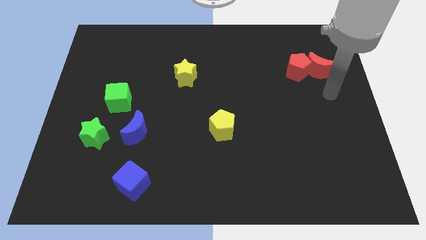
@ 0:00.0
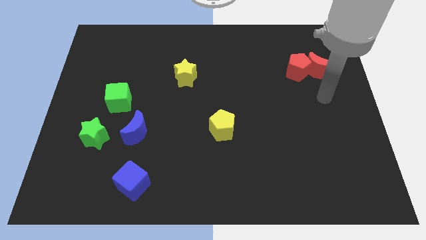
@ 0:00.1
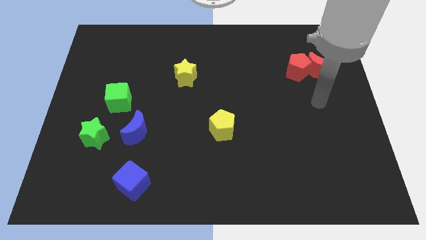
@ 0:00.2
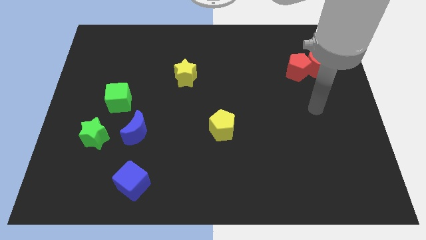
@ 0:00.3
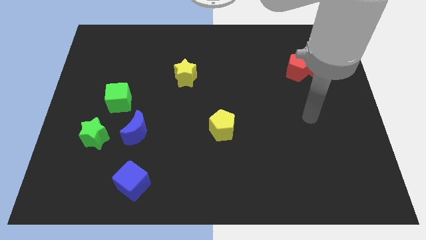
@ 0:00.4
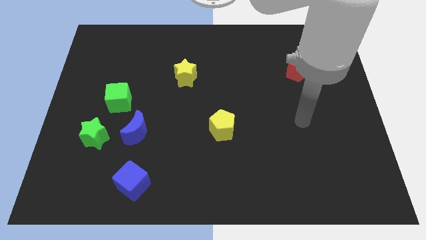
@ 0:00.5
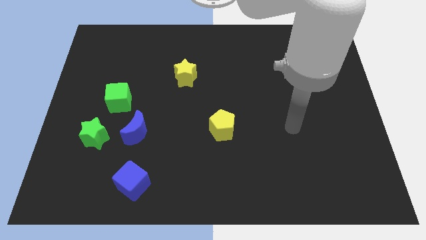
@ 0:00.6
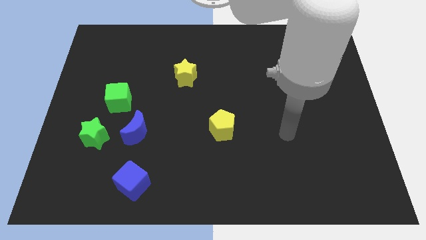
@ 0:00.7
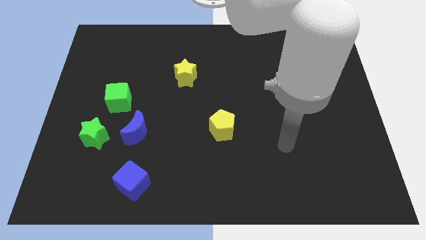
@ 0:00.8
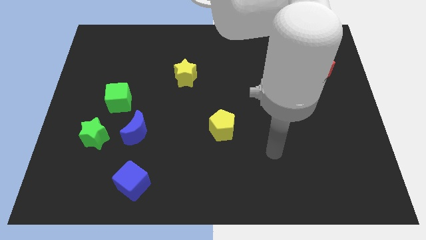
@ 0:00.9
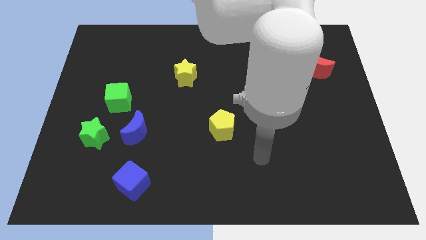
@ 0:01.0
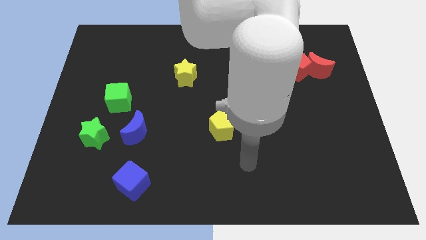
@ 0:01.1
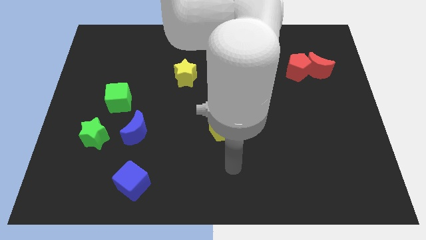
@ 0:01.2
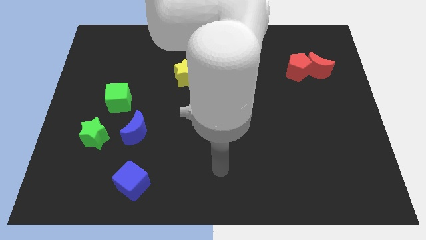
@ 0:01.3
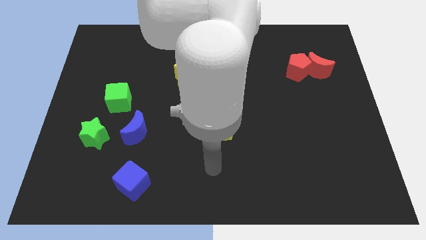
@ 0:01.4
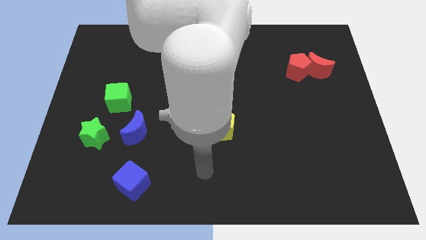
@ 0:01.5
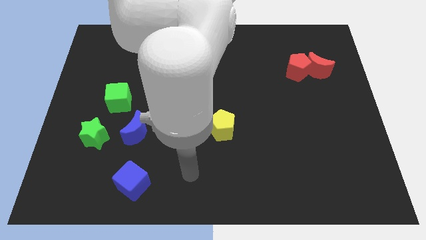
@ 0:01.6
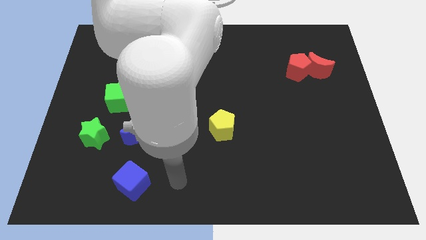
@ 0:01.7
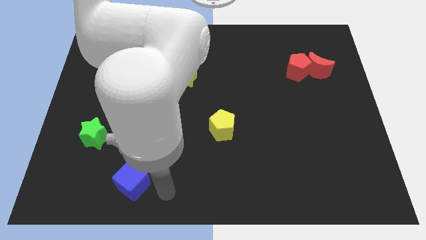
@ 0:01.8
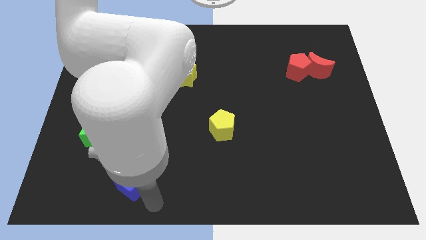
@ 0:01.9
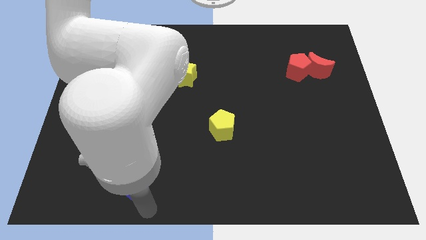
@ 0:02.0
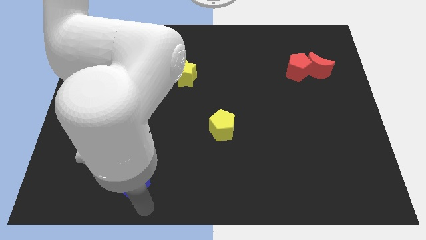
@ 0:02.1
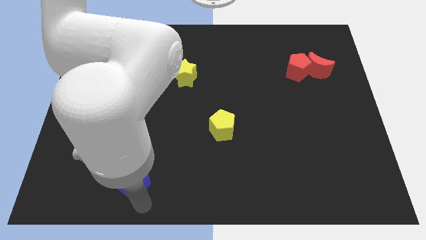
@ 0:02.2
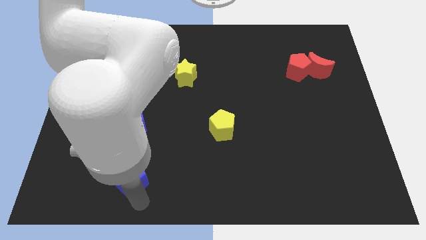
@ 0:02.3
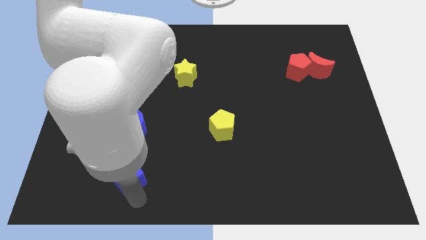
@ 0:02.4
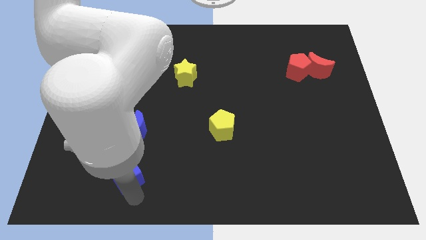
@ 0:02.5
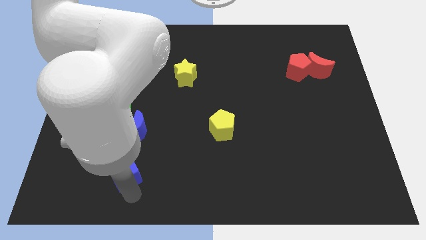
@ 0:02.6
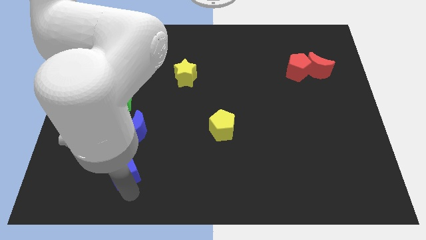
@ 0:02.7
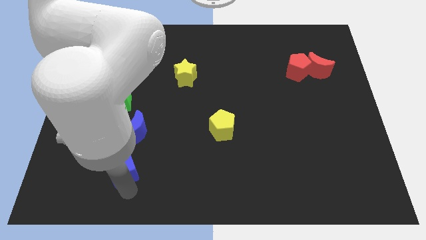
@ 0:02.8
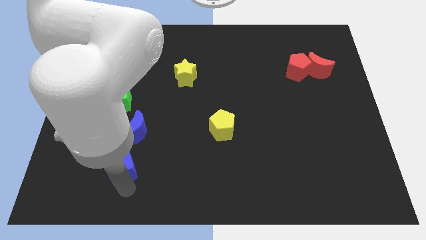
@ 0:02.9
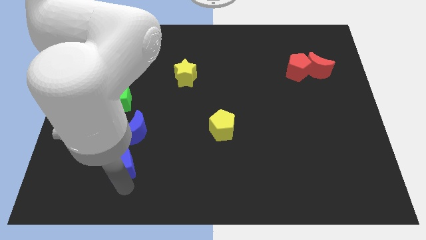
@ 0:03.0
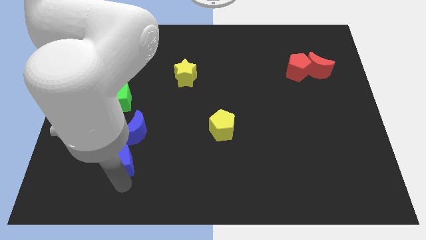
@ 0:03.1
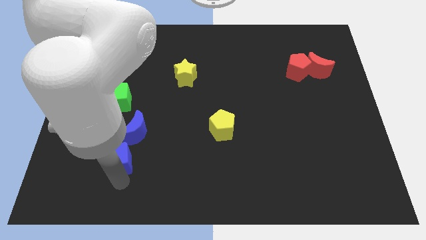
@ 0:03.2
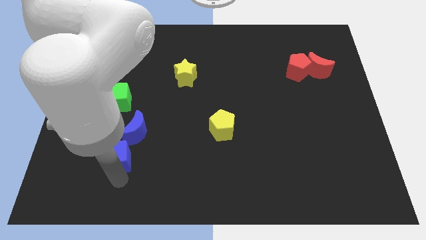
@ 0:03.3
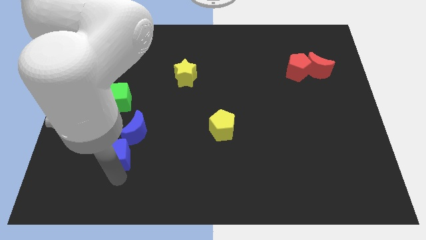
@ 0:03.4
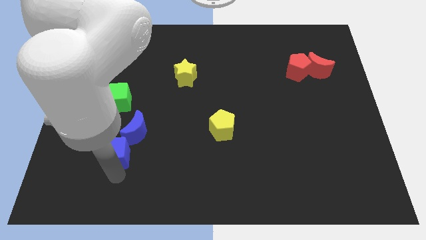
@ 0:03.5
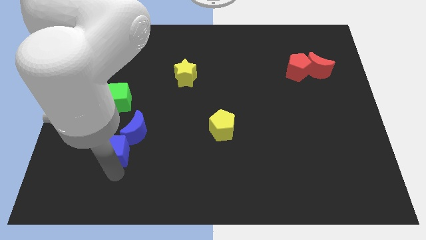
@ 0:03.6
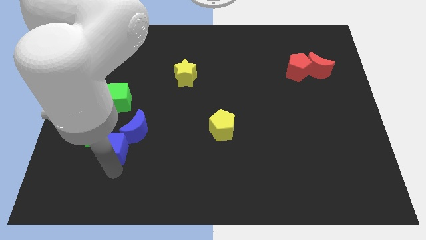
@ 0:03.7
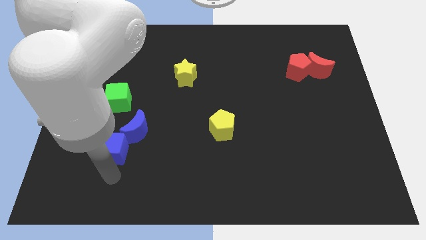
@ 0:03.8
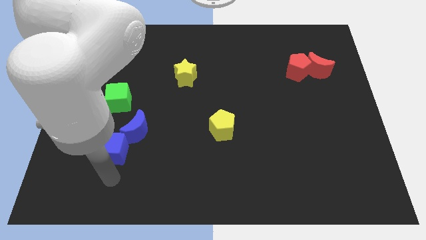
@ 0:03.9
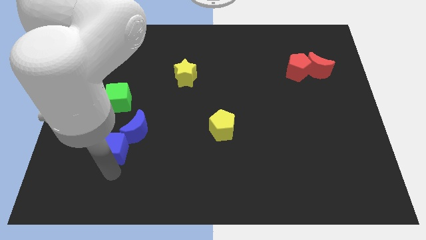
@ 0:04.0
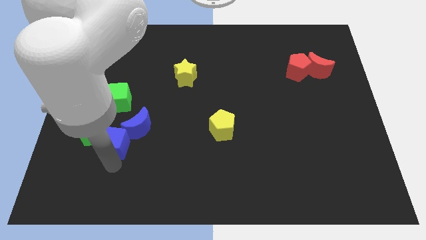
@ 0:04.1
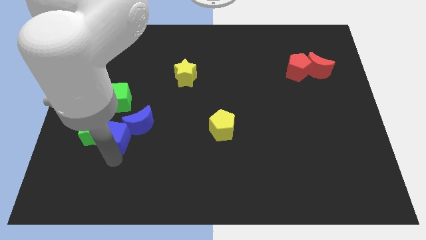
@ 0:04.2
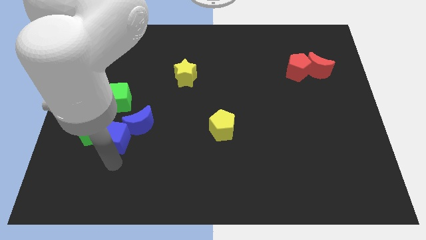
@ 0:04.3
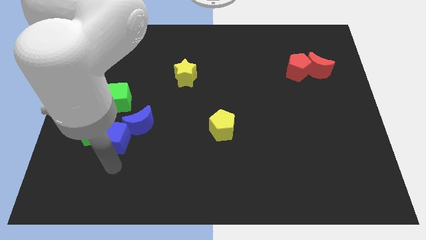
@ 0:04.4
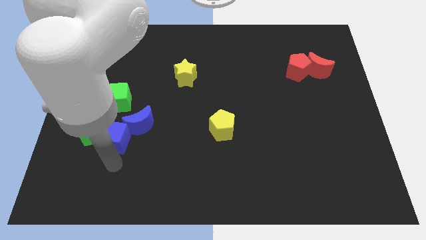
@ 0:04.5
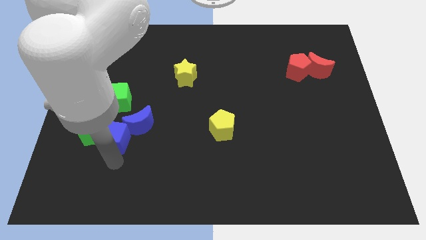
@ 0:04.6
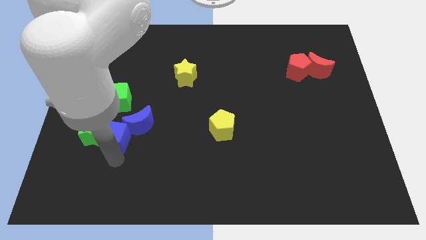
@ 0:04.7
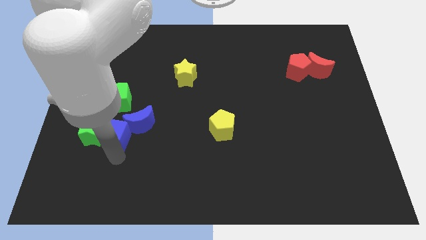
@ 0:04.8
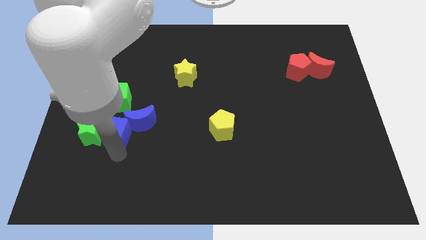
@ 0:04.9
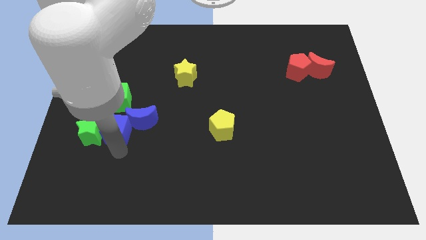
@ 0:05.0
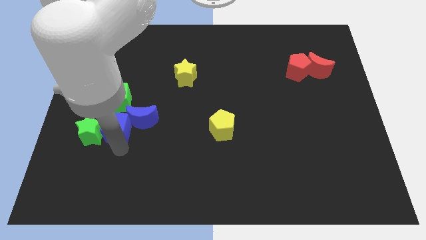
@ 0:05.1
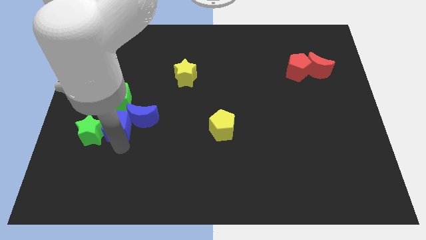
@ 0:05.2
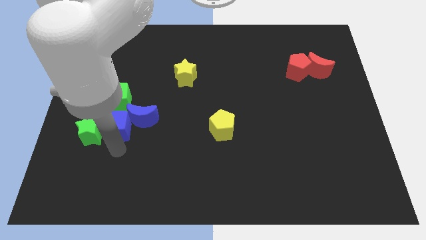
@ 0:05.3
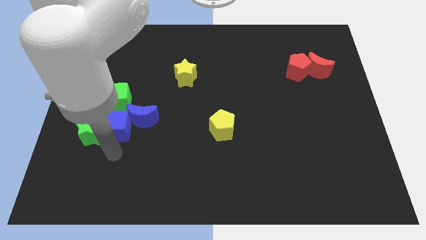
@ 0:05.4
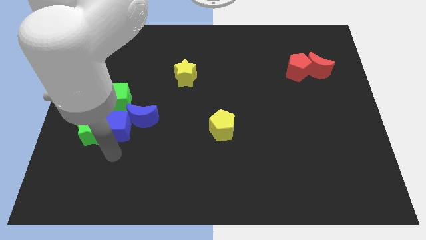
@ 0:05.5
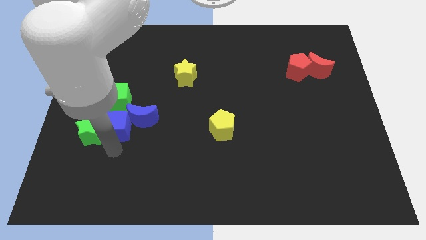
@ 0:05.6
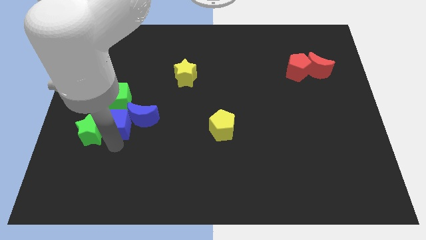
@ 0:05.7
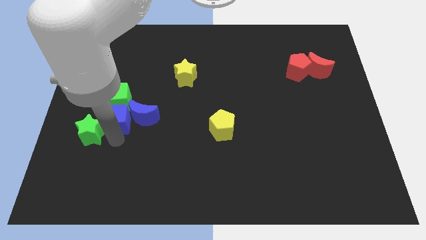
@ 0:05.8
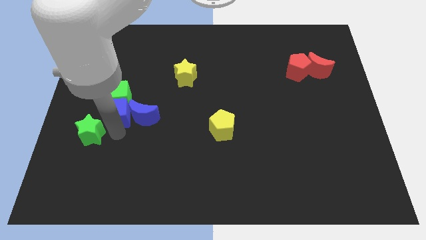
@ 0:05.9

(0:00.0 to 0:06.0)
move the blue cube to the green cube

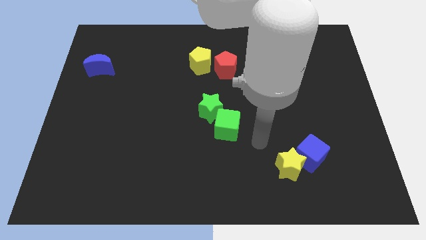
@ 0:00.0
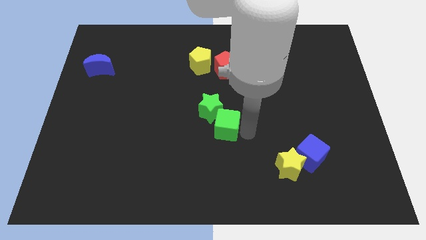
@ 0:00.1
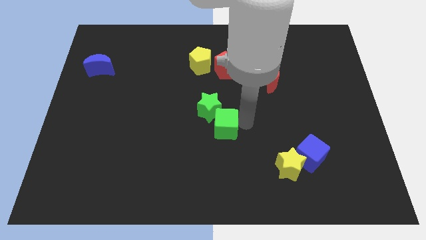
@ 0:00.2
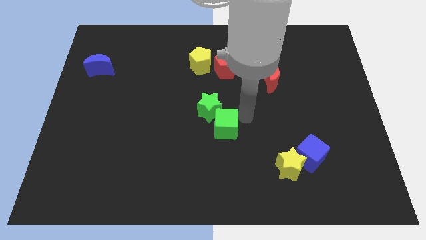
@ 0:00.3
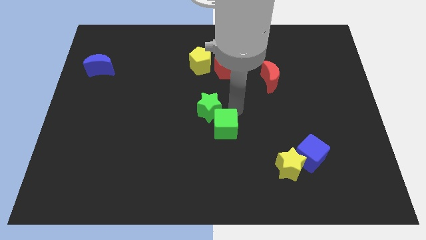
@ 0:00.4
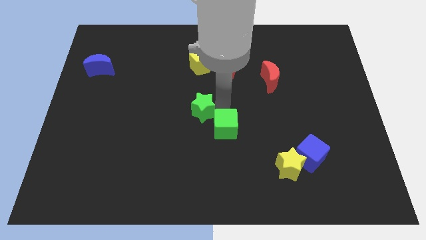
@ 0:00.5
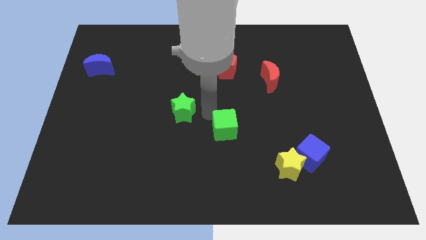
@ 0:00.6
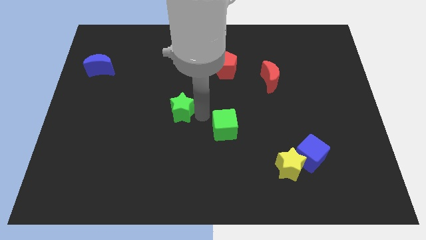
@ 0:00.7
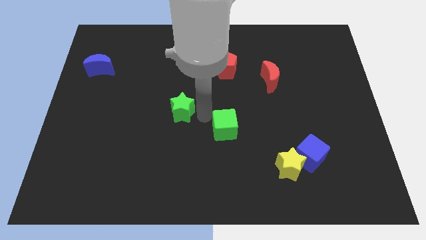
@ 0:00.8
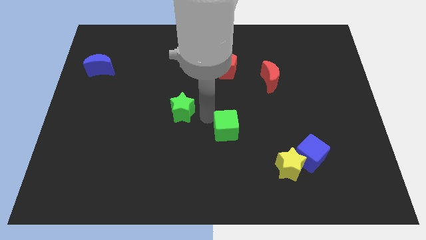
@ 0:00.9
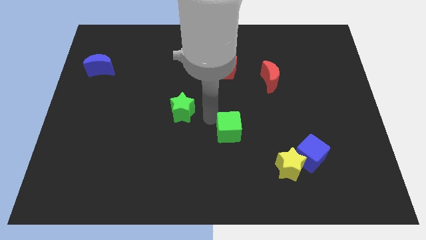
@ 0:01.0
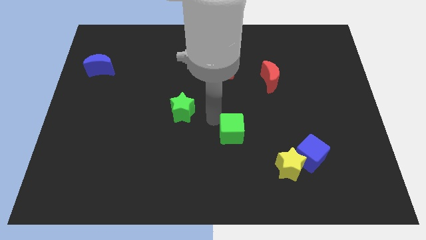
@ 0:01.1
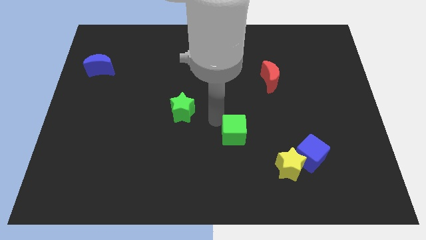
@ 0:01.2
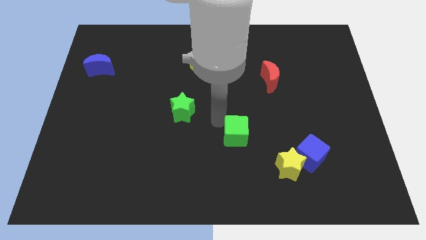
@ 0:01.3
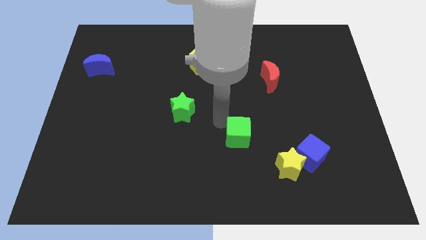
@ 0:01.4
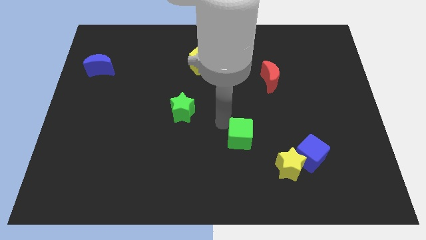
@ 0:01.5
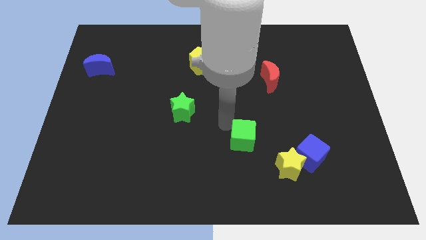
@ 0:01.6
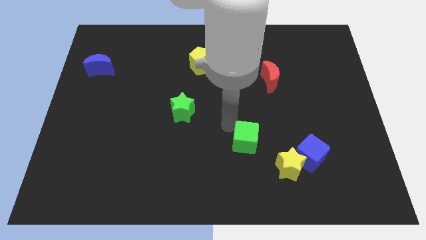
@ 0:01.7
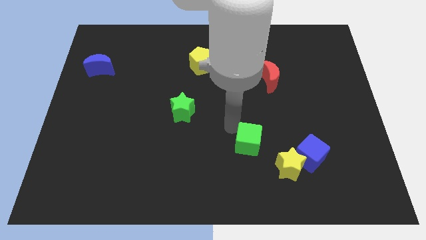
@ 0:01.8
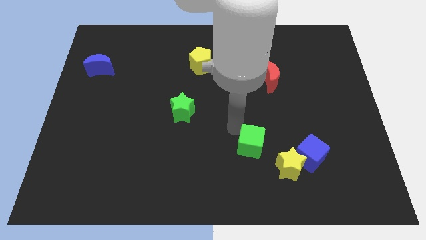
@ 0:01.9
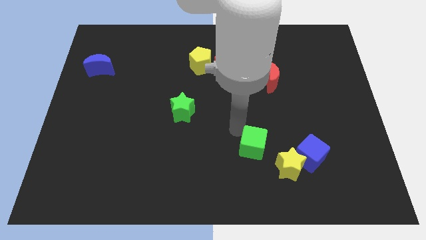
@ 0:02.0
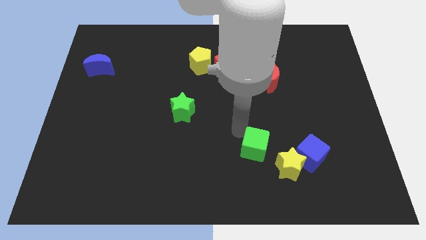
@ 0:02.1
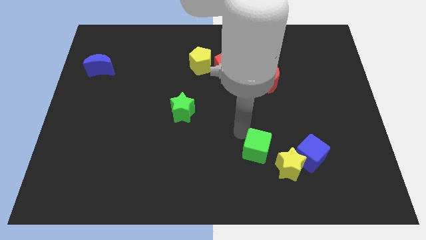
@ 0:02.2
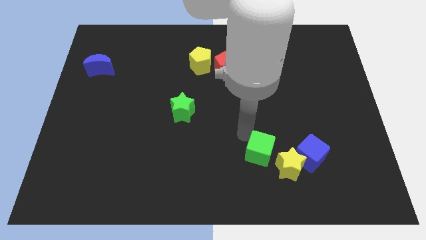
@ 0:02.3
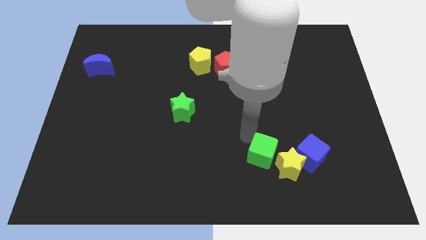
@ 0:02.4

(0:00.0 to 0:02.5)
move the green cube close to the yellow star

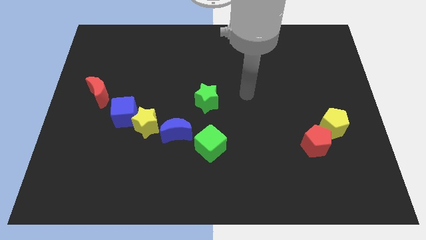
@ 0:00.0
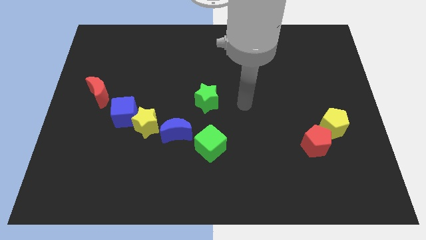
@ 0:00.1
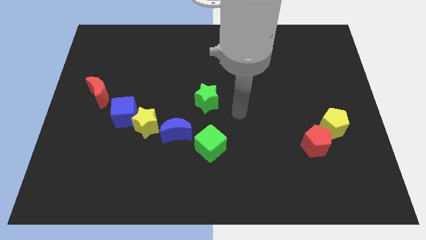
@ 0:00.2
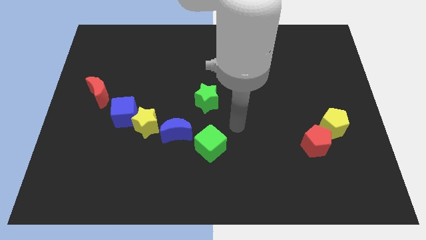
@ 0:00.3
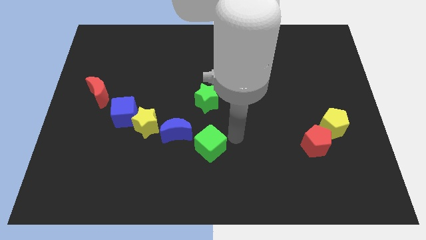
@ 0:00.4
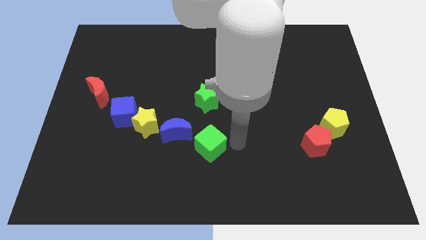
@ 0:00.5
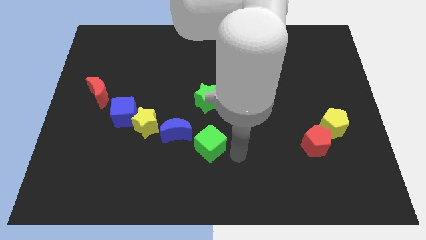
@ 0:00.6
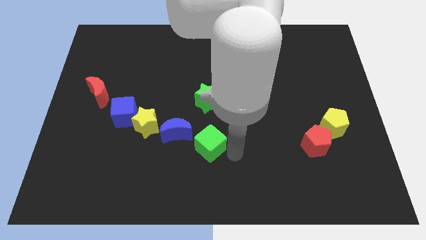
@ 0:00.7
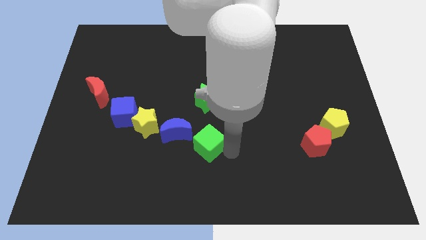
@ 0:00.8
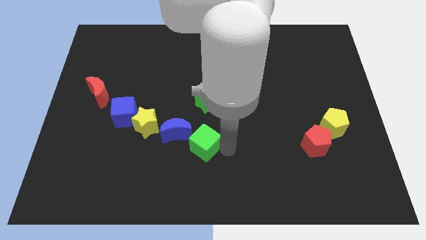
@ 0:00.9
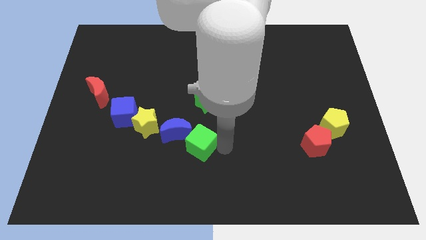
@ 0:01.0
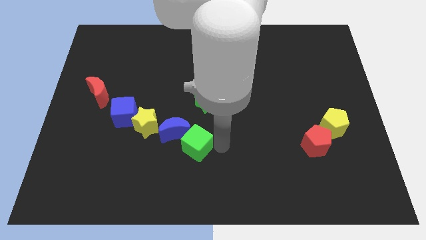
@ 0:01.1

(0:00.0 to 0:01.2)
move the green cube to the blue moon
